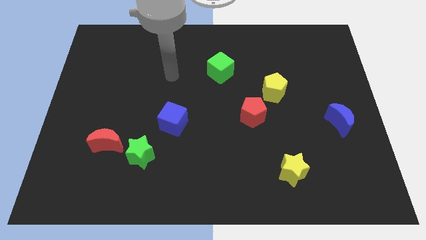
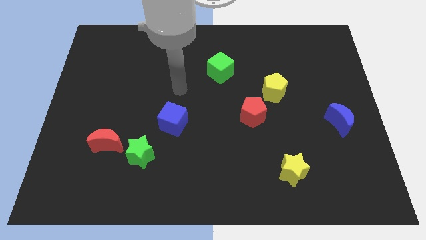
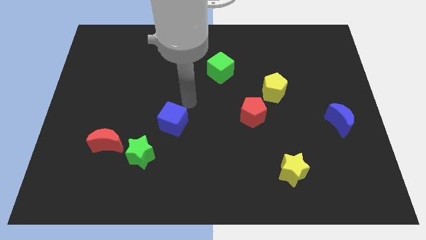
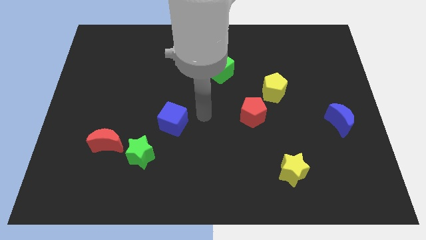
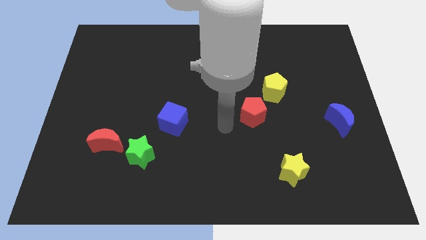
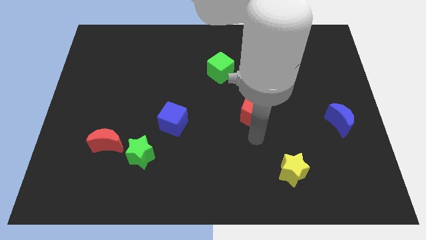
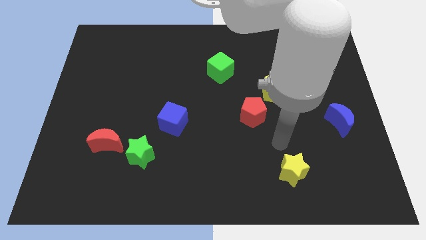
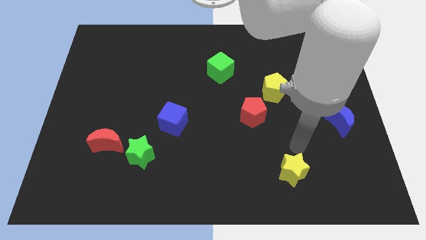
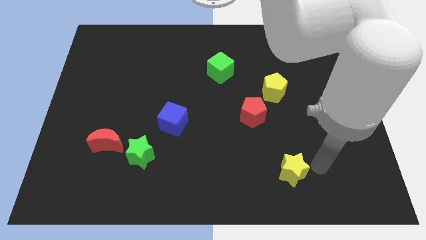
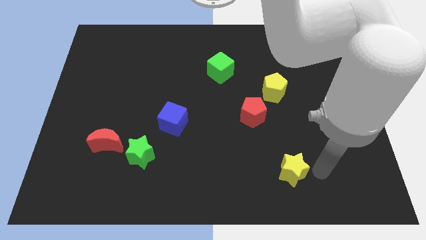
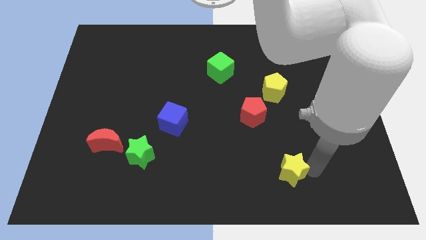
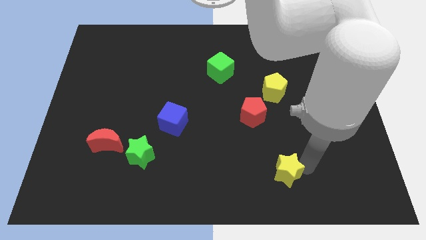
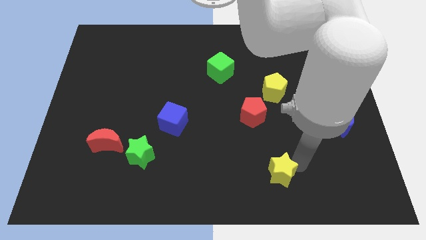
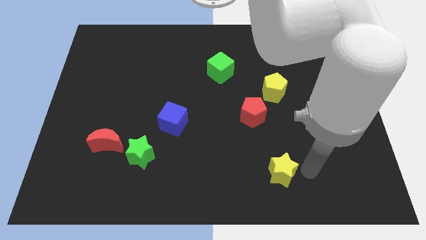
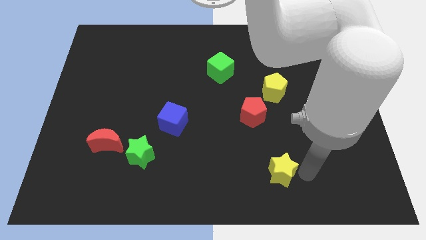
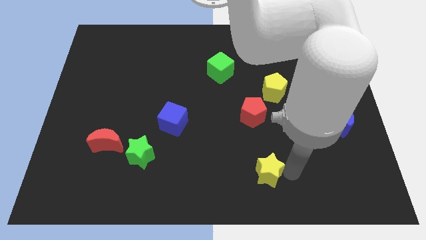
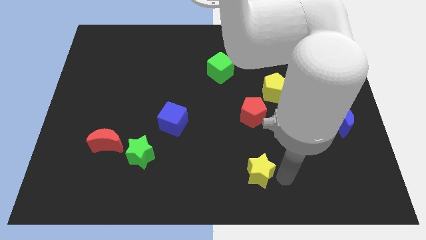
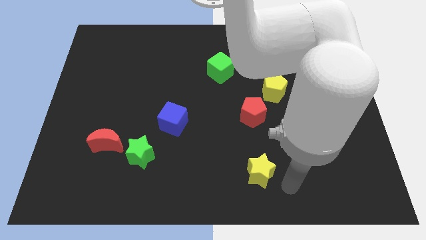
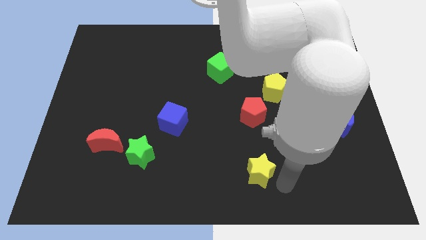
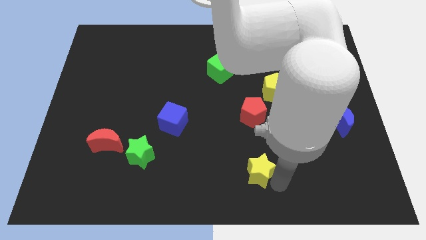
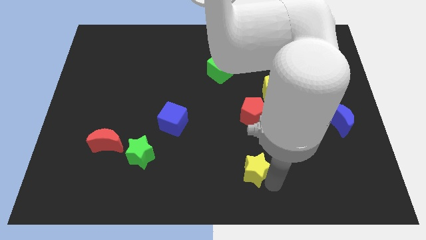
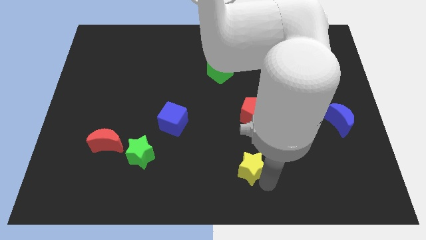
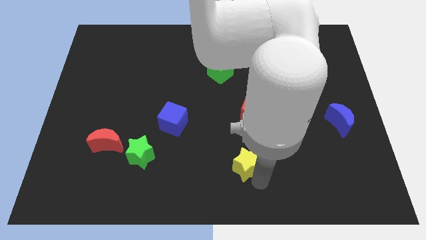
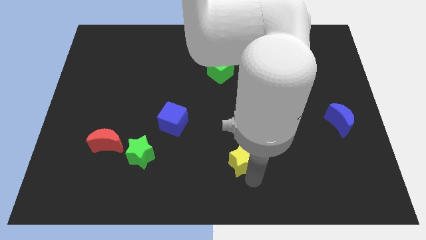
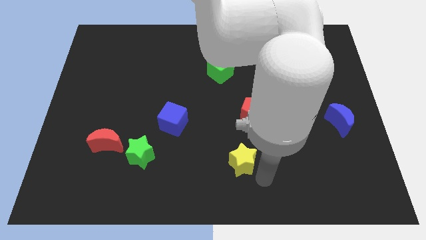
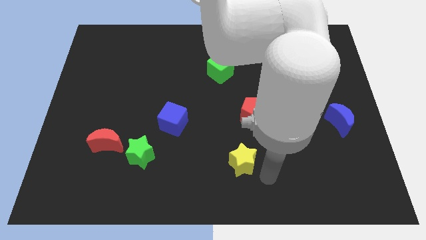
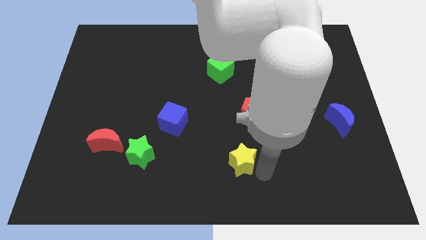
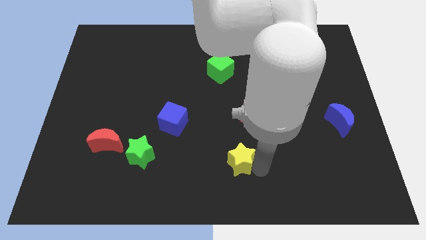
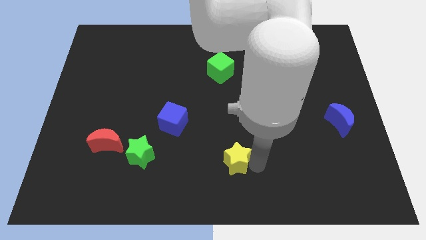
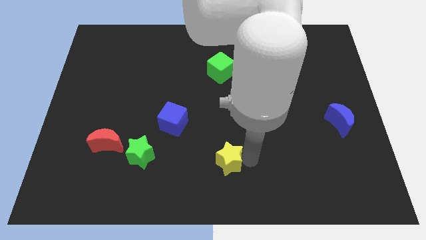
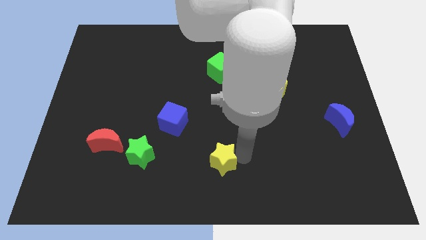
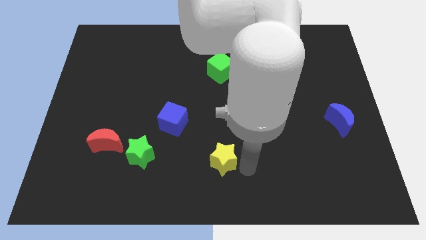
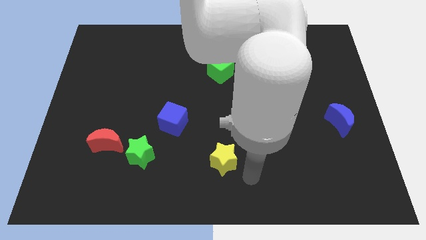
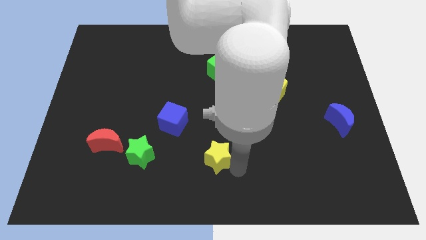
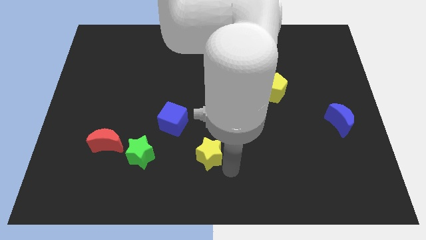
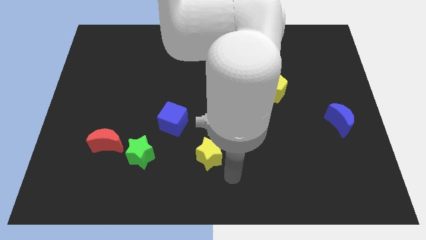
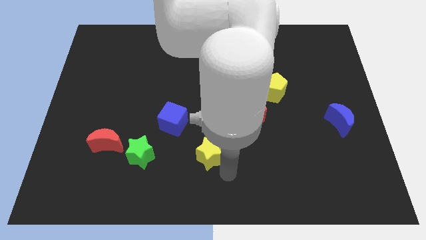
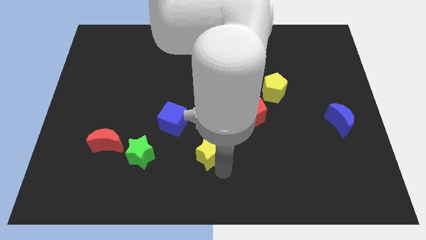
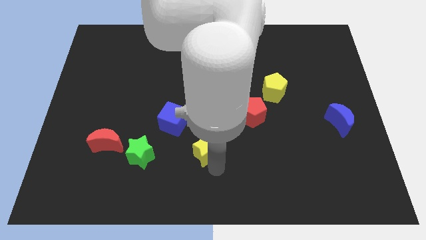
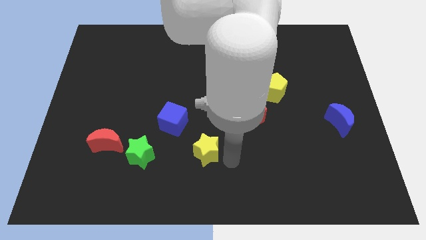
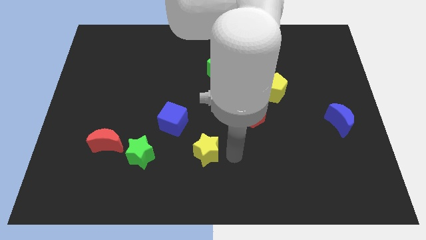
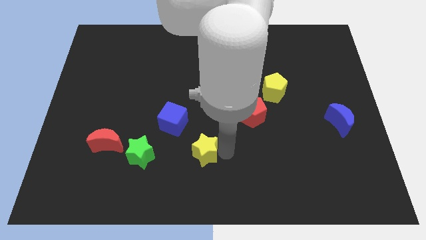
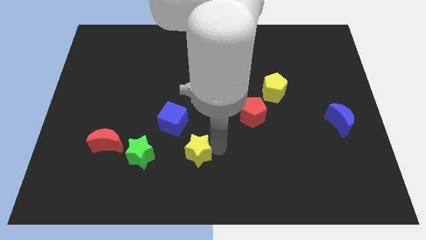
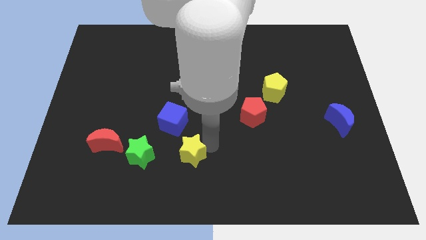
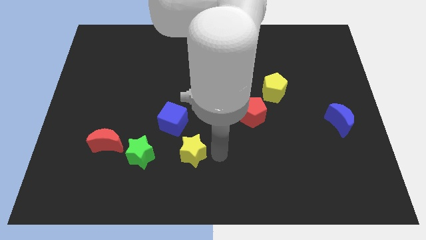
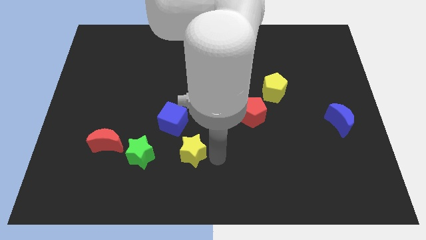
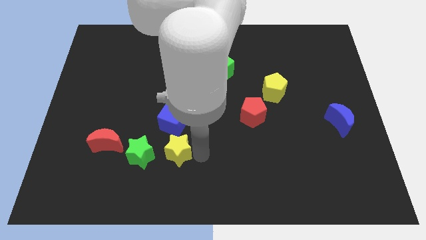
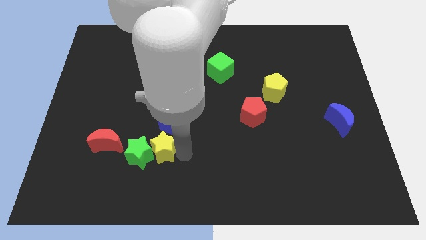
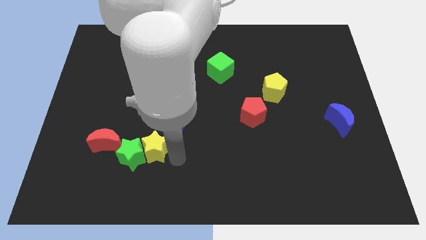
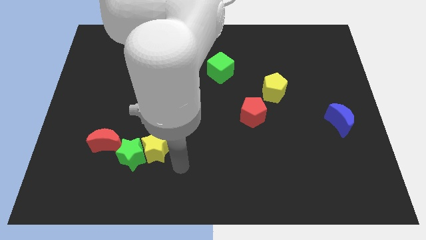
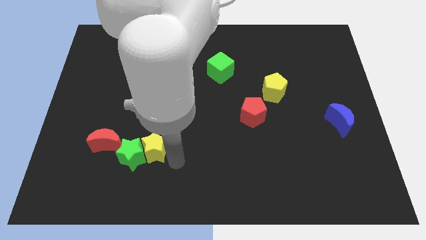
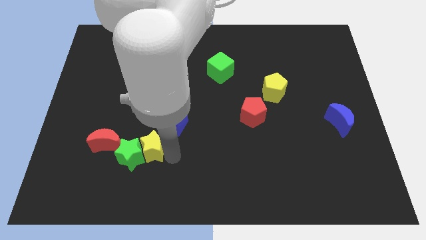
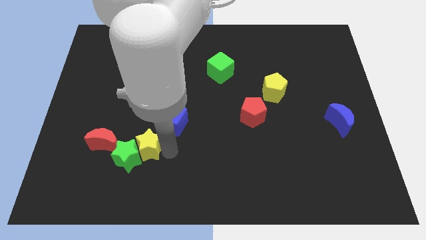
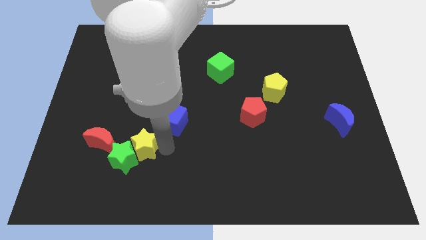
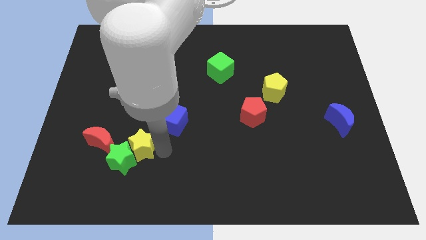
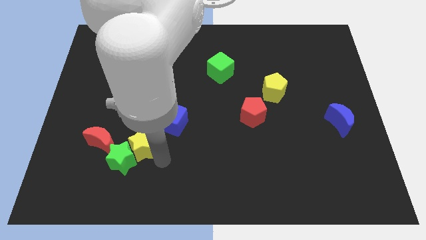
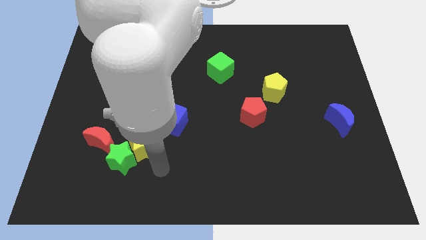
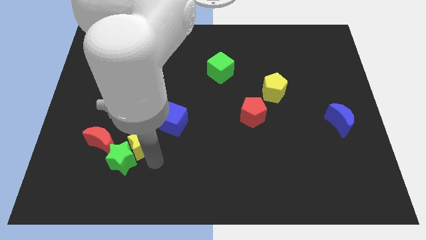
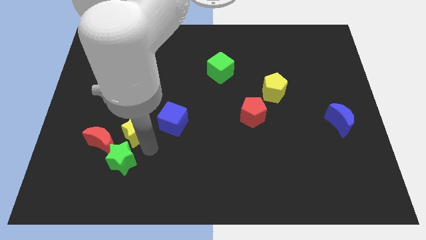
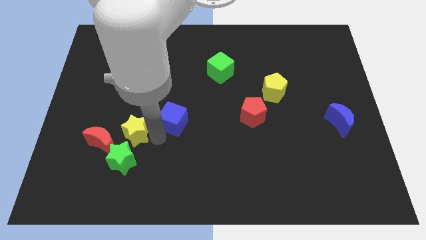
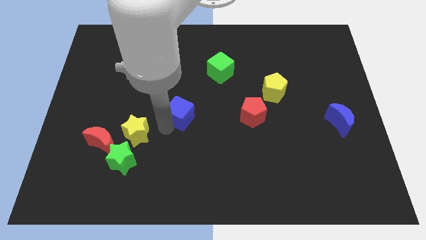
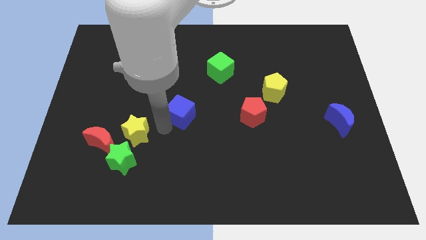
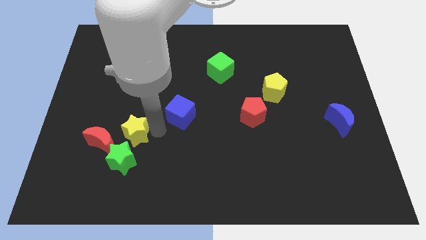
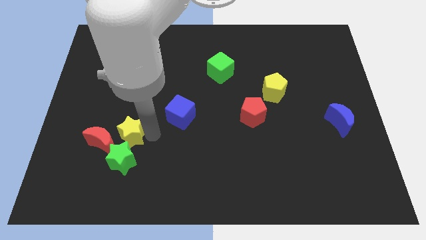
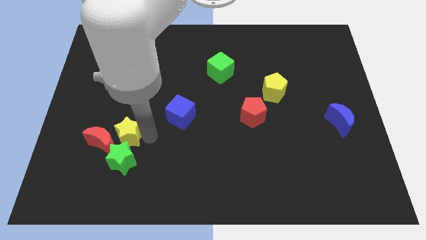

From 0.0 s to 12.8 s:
push the yellow star to the red moon

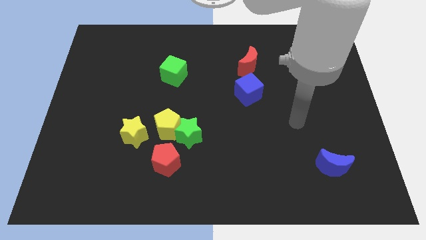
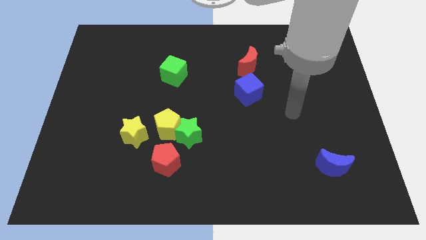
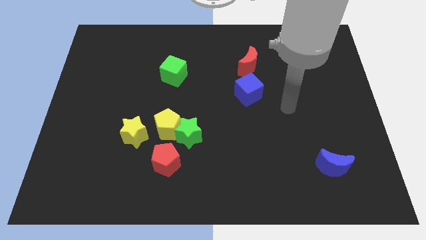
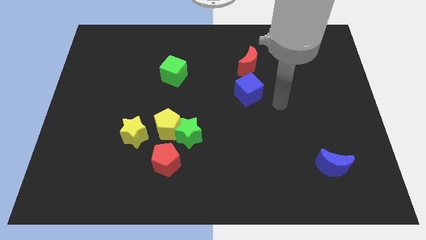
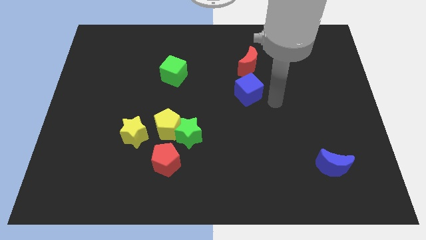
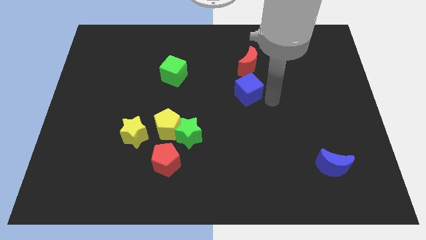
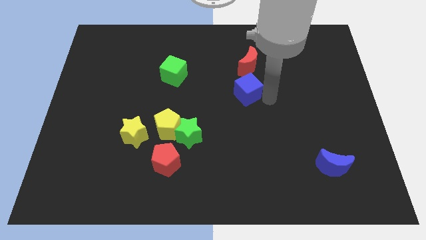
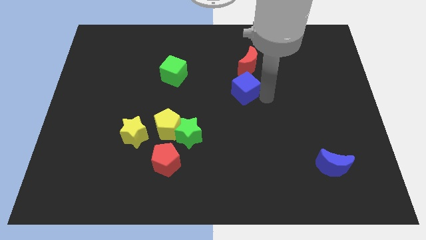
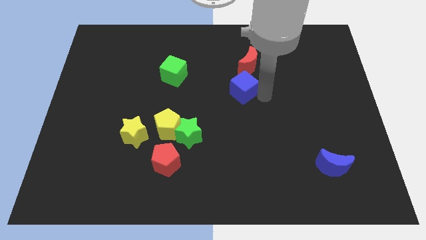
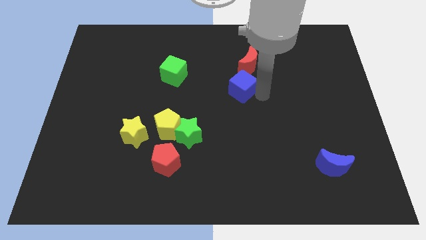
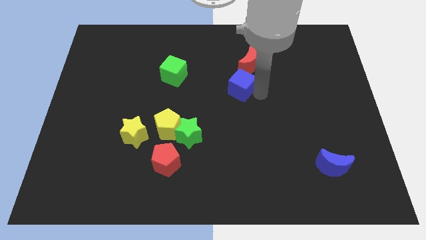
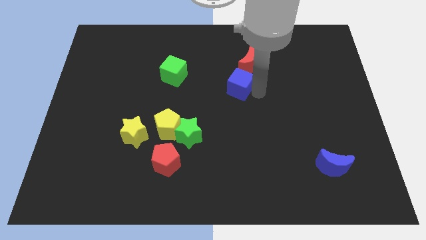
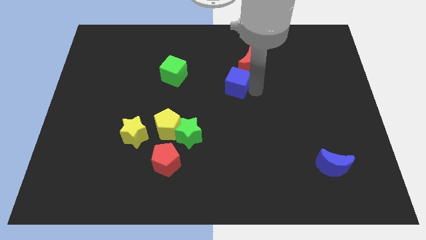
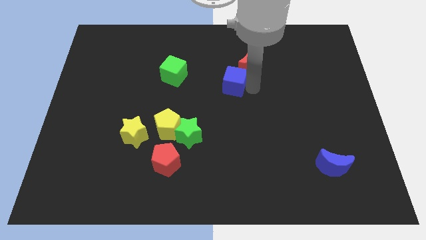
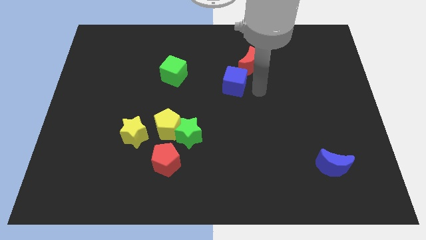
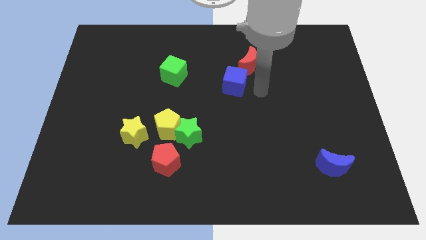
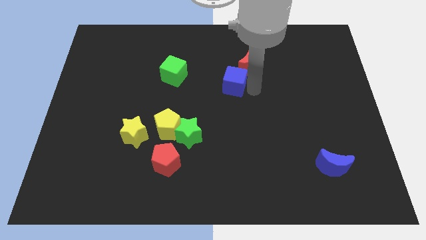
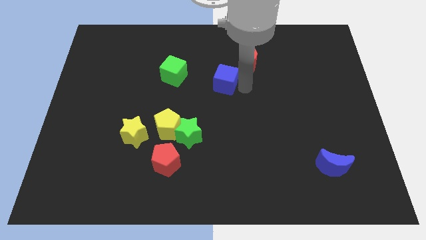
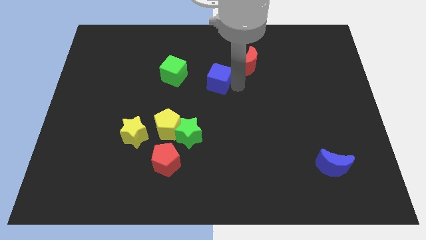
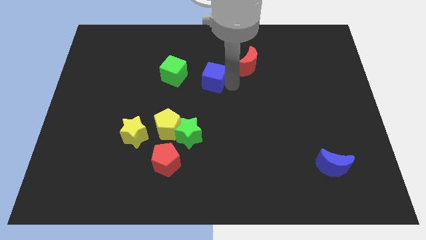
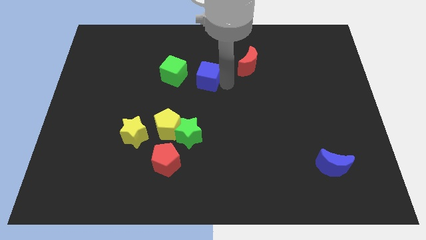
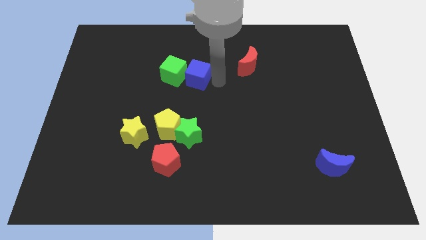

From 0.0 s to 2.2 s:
put the blue cube to the green cube
